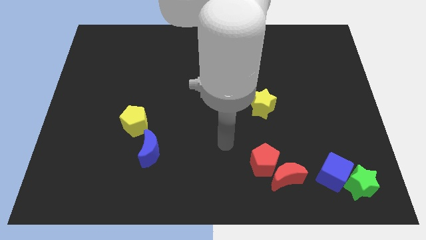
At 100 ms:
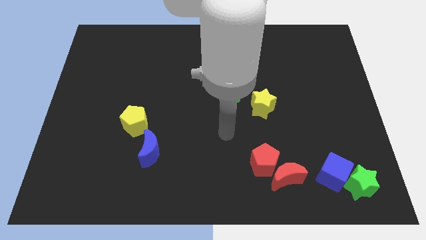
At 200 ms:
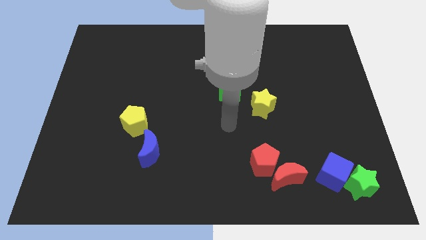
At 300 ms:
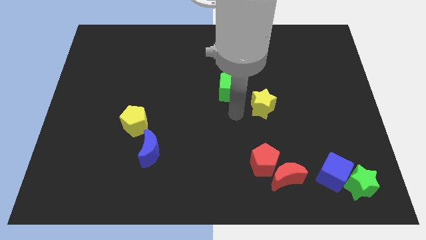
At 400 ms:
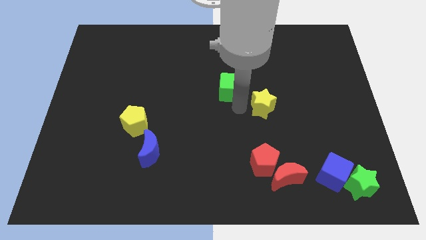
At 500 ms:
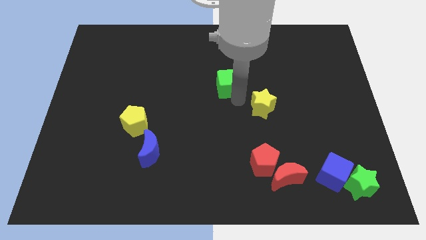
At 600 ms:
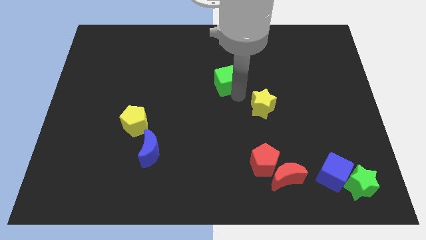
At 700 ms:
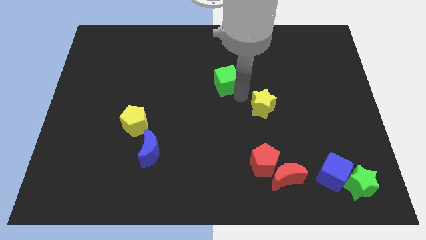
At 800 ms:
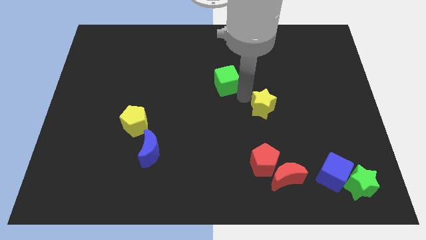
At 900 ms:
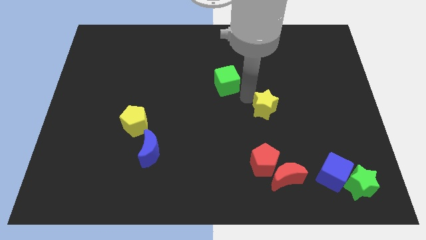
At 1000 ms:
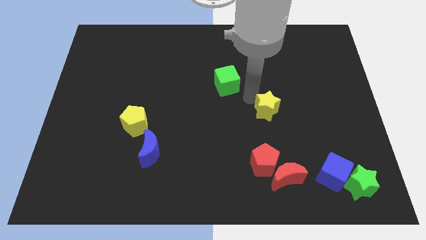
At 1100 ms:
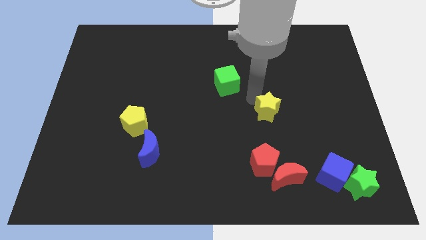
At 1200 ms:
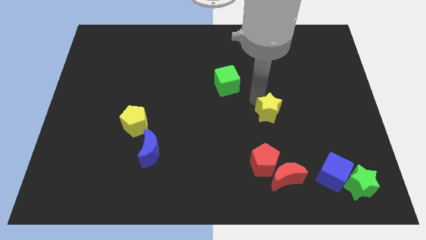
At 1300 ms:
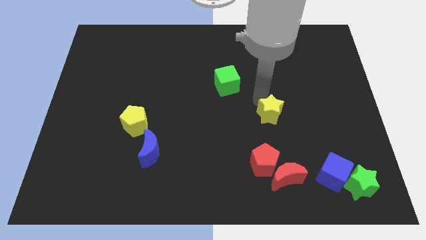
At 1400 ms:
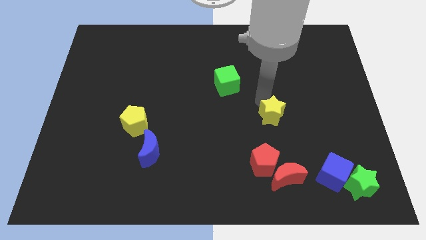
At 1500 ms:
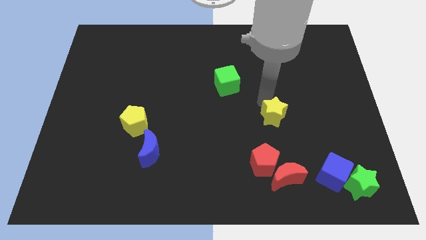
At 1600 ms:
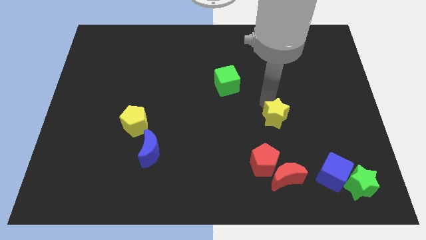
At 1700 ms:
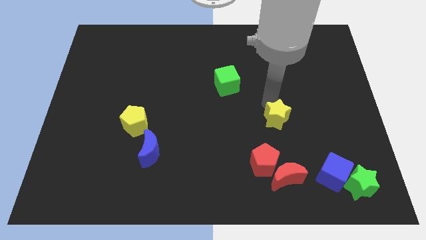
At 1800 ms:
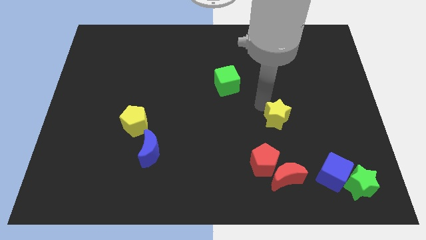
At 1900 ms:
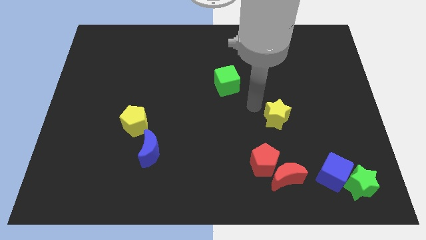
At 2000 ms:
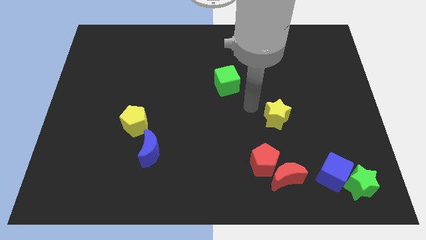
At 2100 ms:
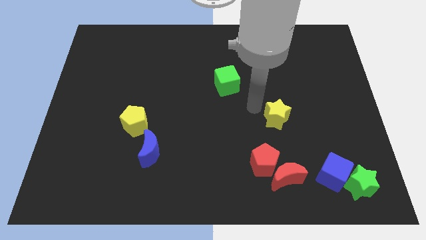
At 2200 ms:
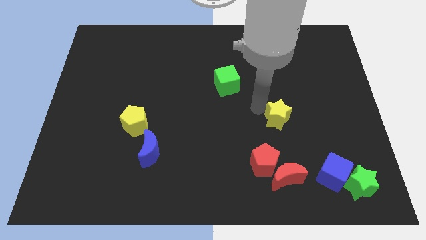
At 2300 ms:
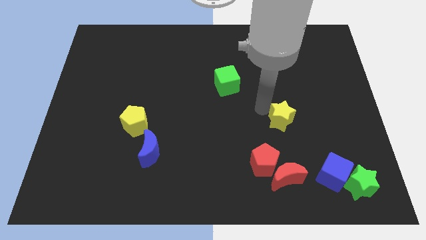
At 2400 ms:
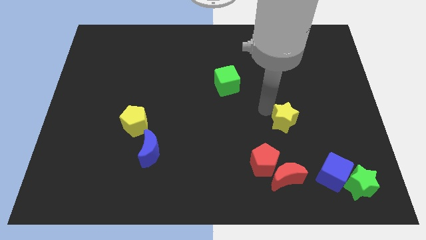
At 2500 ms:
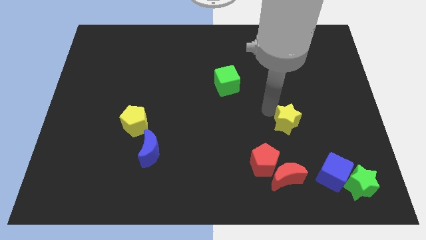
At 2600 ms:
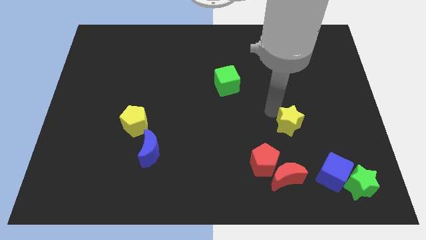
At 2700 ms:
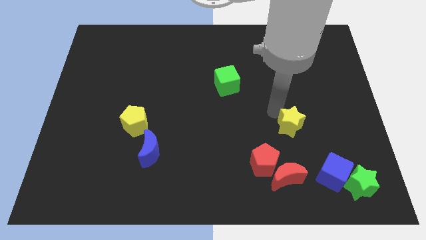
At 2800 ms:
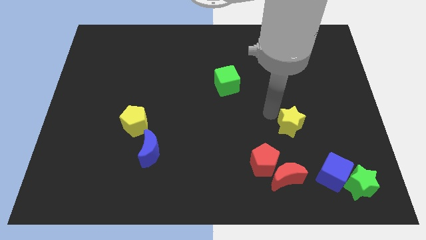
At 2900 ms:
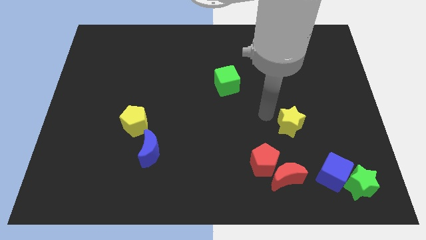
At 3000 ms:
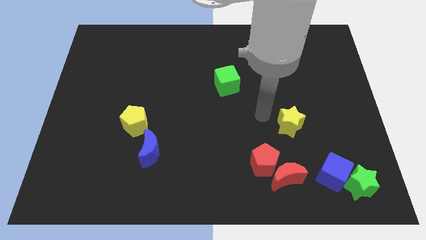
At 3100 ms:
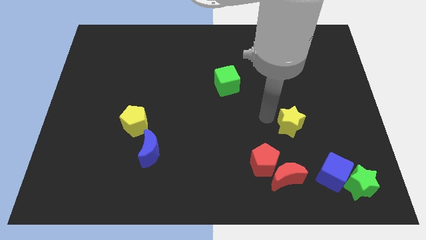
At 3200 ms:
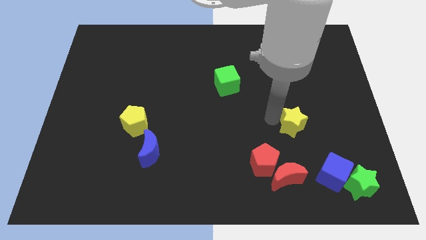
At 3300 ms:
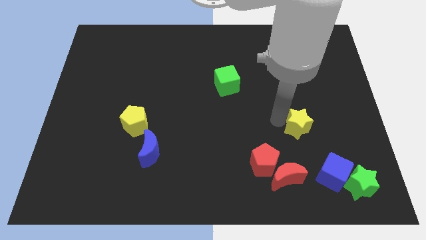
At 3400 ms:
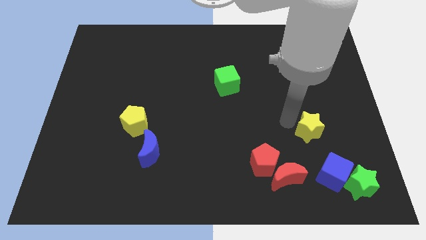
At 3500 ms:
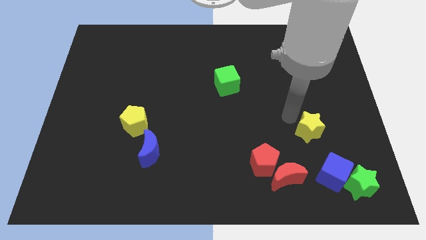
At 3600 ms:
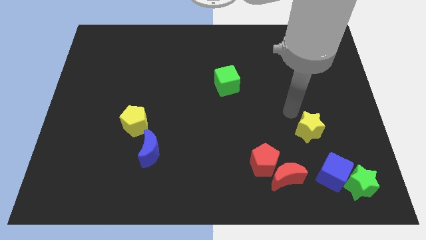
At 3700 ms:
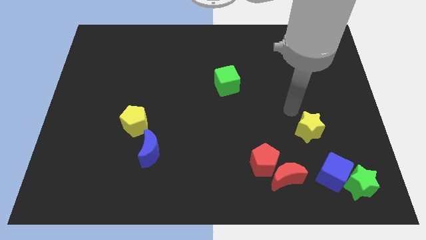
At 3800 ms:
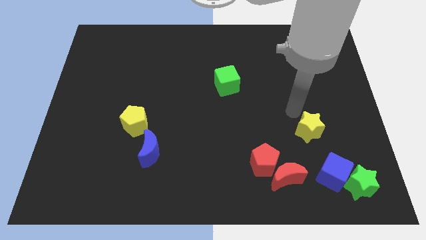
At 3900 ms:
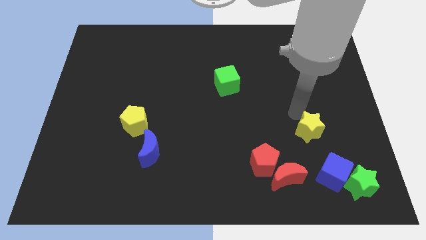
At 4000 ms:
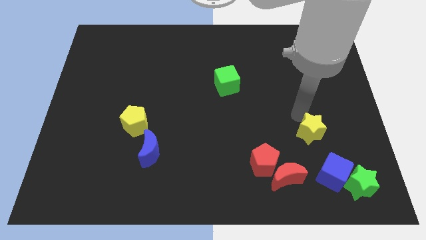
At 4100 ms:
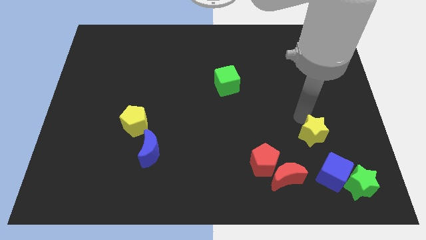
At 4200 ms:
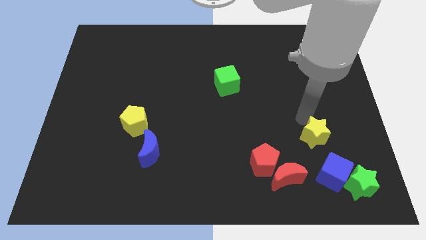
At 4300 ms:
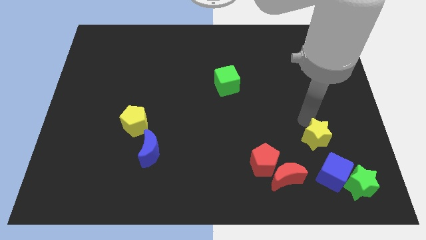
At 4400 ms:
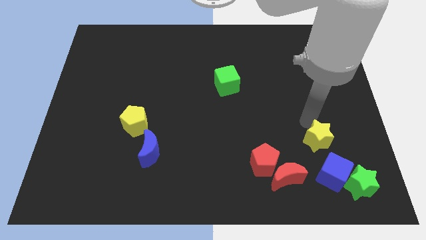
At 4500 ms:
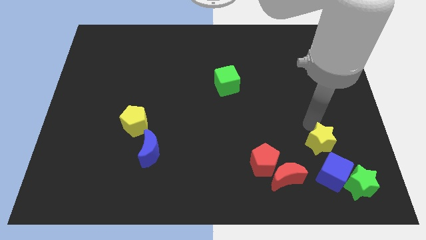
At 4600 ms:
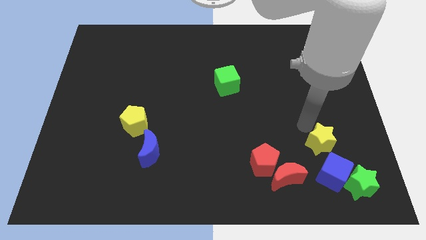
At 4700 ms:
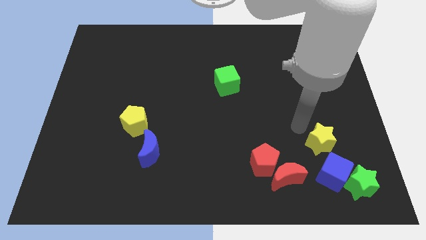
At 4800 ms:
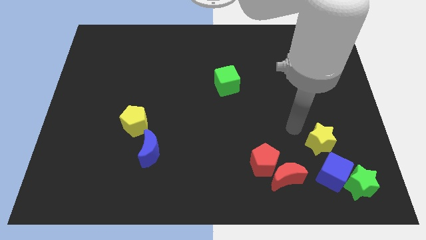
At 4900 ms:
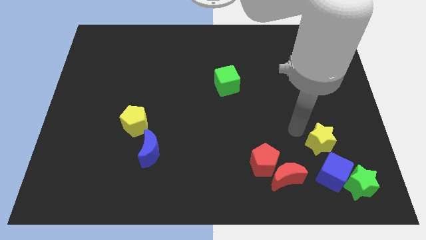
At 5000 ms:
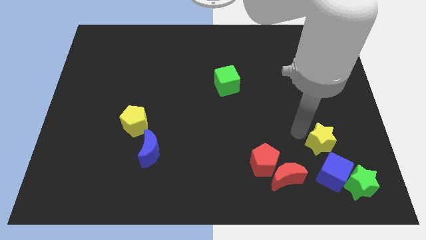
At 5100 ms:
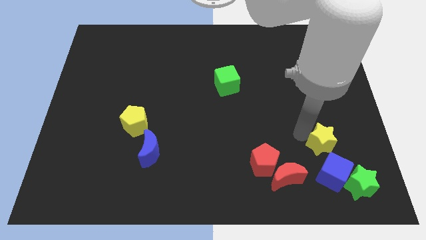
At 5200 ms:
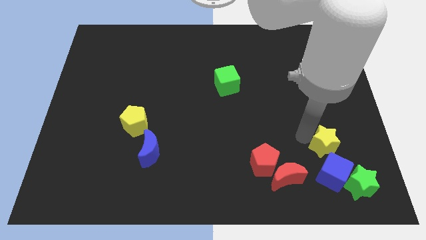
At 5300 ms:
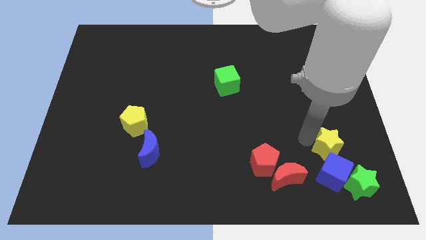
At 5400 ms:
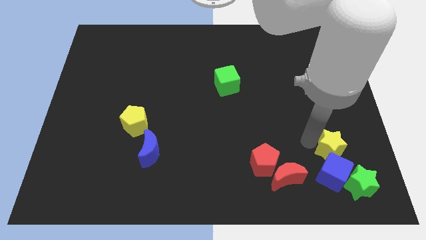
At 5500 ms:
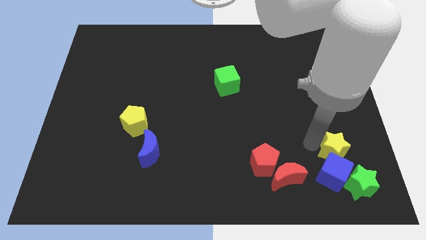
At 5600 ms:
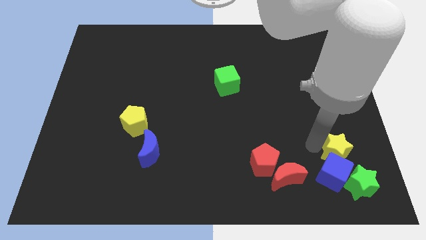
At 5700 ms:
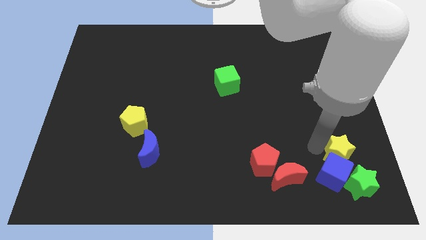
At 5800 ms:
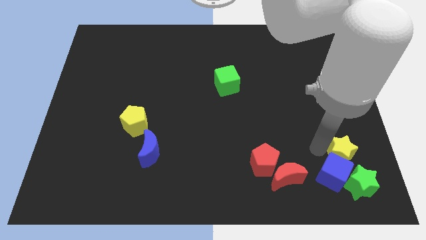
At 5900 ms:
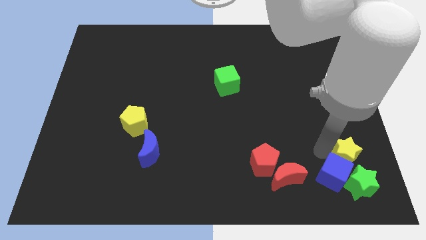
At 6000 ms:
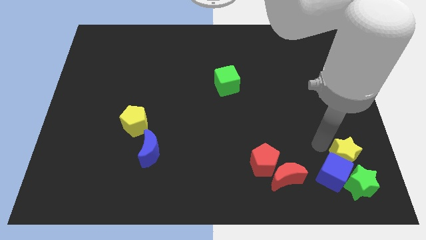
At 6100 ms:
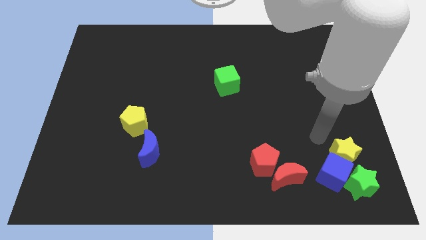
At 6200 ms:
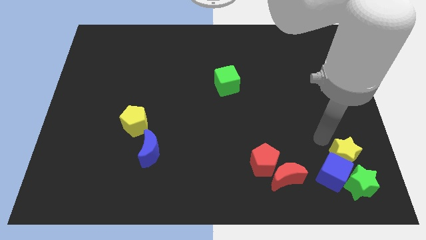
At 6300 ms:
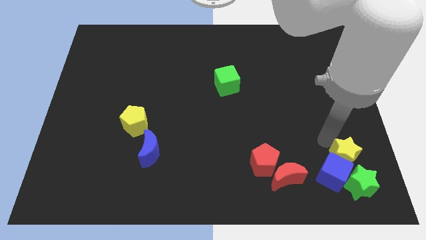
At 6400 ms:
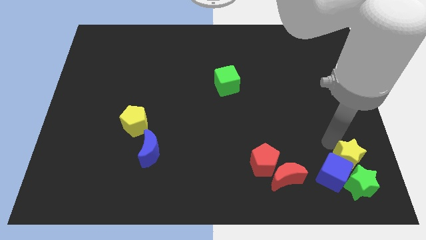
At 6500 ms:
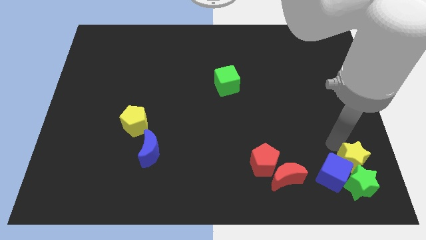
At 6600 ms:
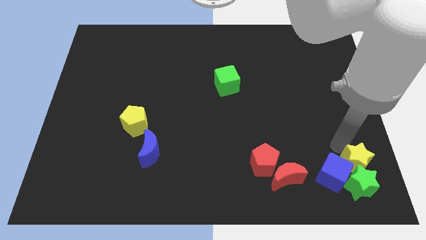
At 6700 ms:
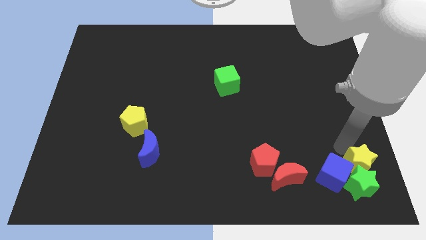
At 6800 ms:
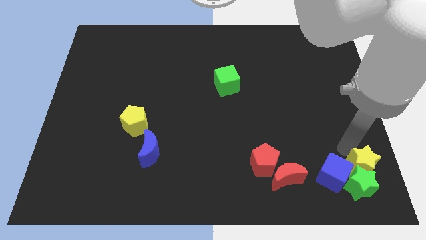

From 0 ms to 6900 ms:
slide the yellow star to the bottom right
